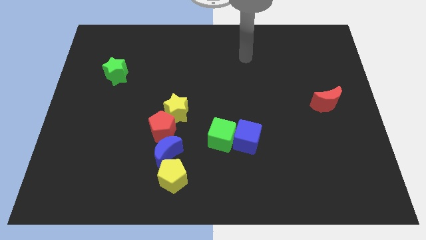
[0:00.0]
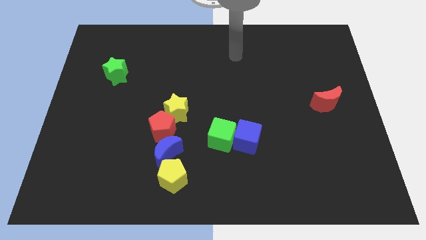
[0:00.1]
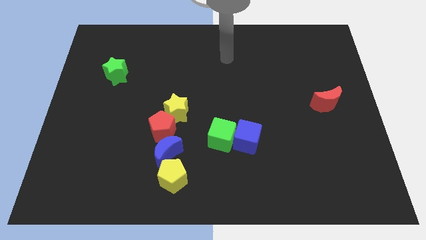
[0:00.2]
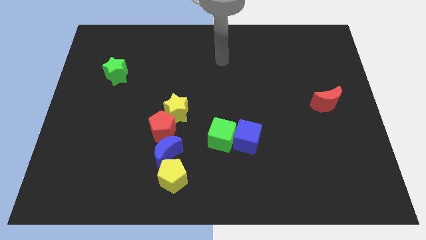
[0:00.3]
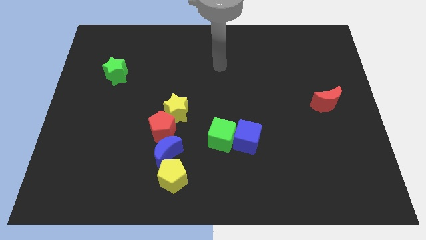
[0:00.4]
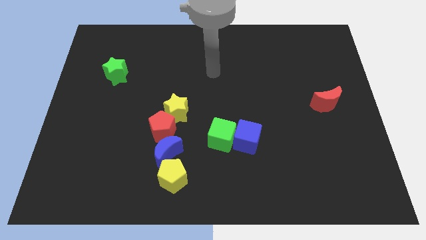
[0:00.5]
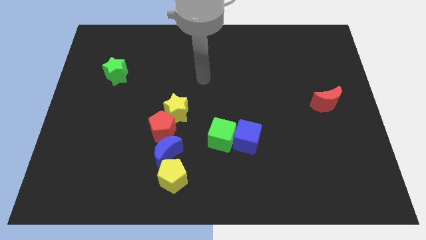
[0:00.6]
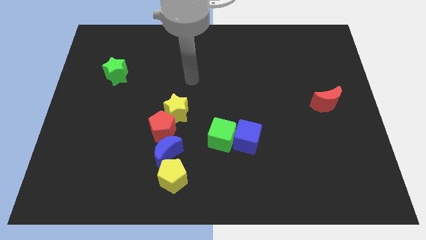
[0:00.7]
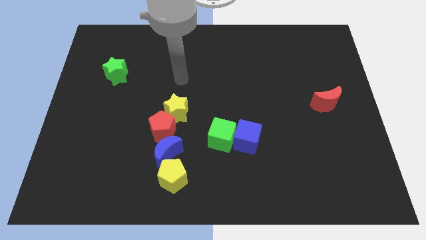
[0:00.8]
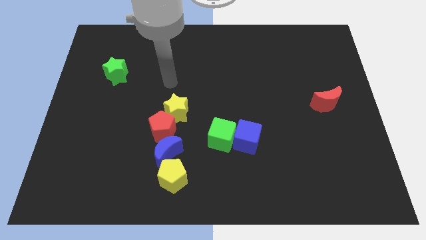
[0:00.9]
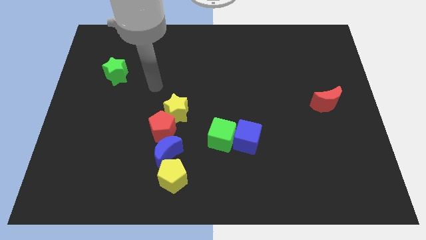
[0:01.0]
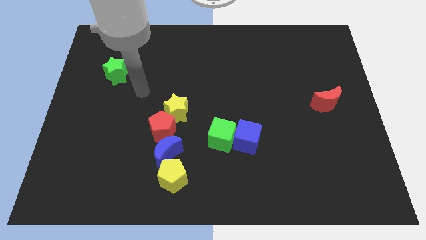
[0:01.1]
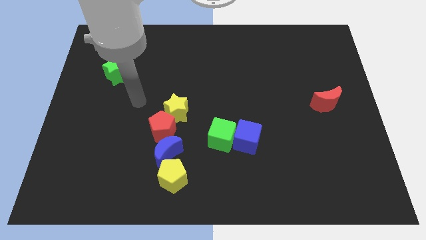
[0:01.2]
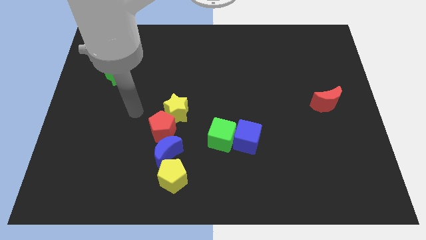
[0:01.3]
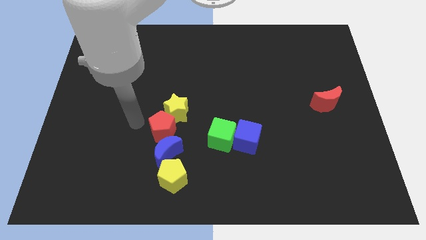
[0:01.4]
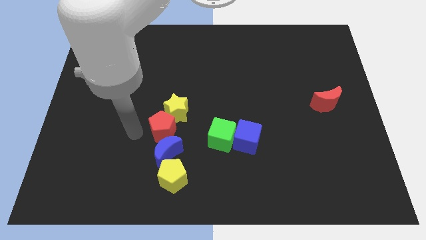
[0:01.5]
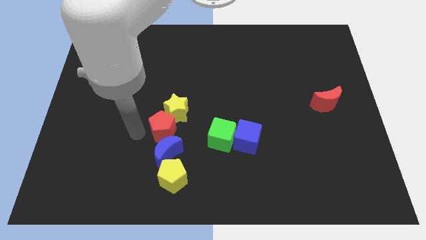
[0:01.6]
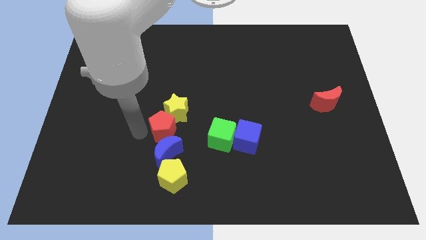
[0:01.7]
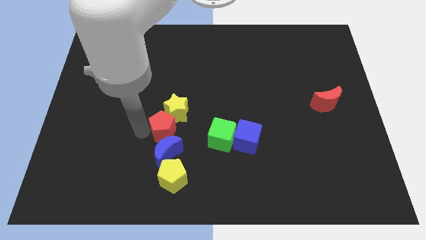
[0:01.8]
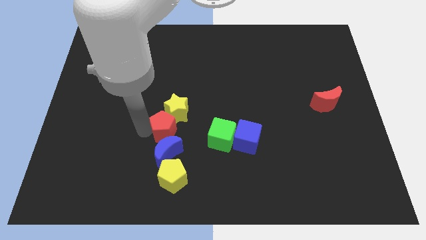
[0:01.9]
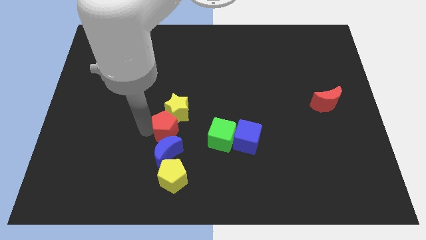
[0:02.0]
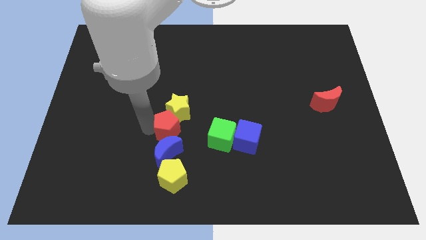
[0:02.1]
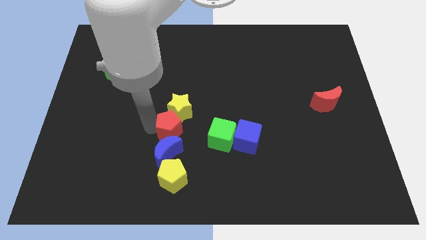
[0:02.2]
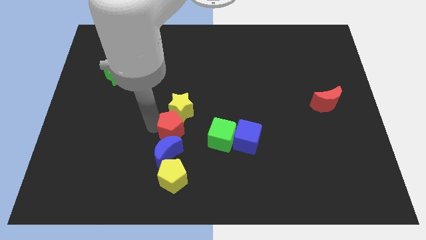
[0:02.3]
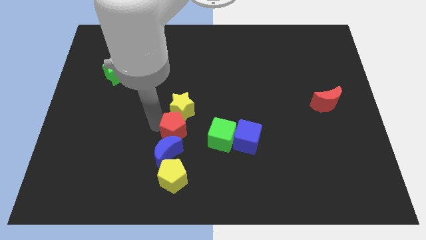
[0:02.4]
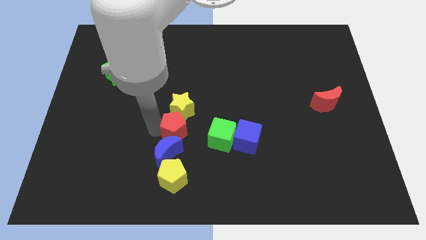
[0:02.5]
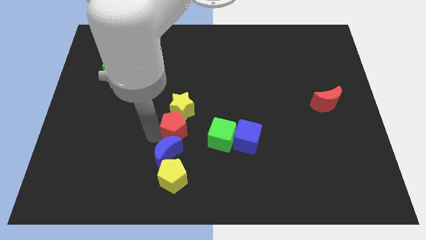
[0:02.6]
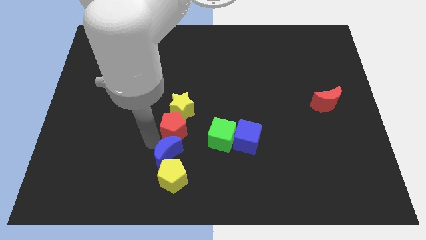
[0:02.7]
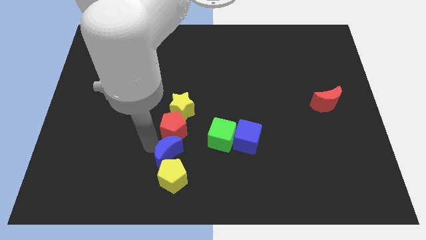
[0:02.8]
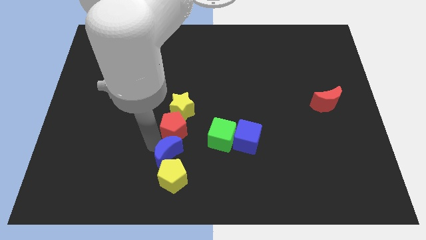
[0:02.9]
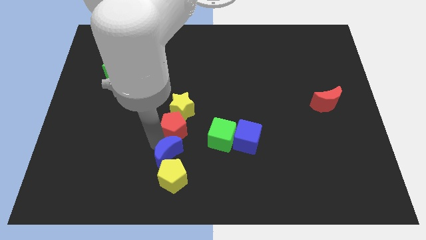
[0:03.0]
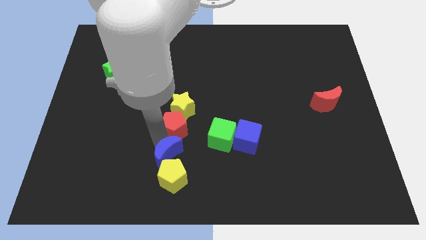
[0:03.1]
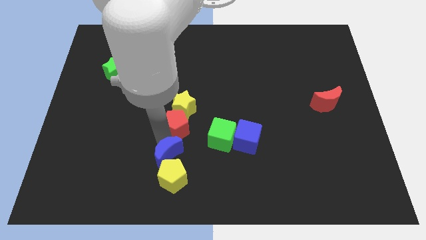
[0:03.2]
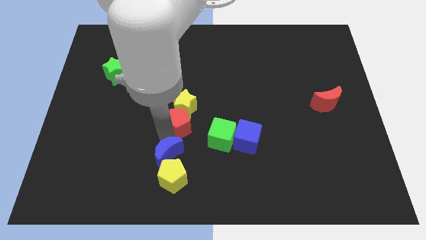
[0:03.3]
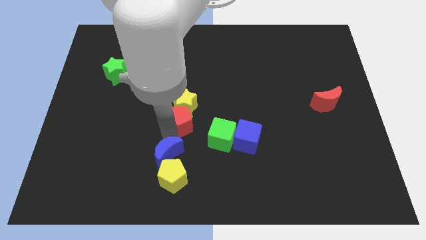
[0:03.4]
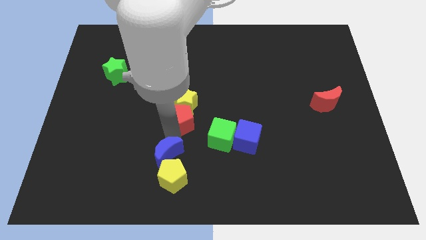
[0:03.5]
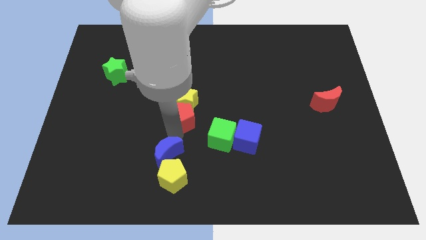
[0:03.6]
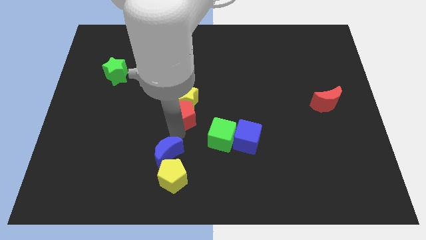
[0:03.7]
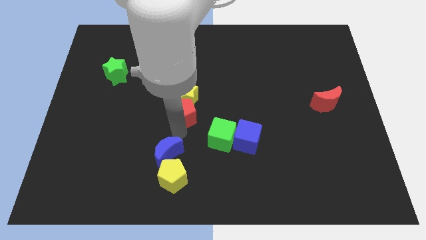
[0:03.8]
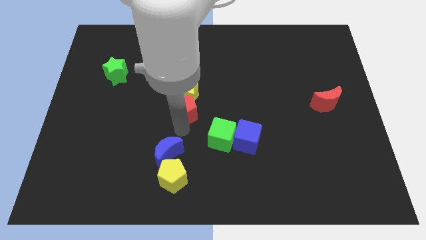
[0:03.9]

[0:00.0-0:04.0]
slightly move the red pentagon up and right diagonally

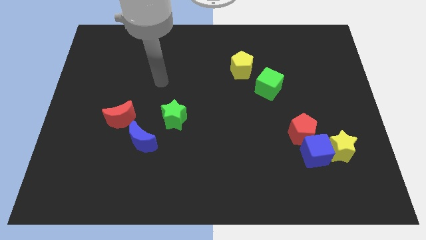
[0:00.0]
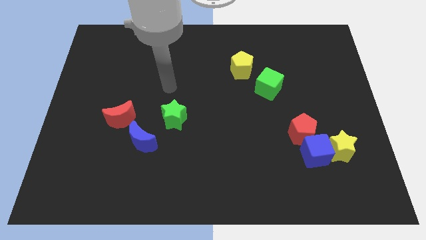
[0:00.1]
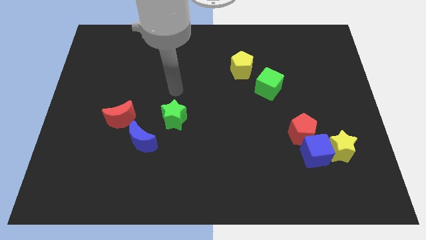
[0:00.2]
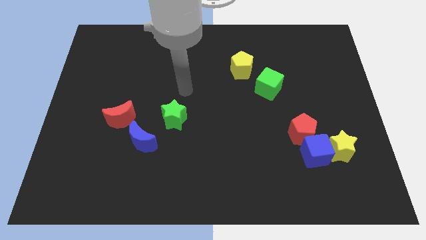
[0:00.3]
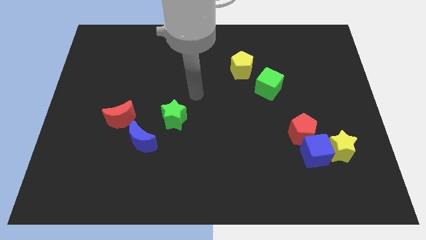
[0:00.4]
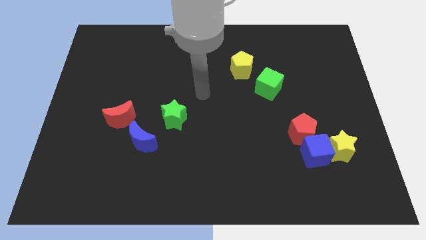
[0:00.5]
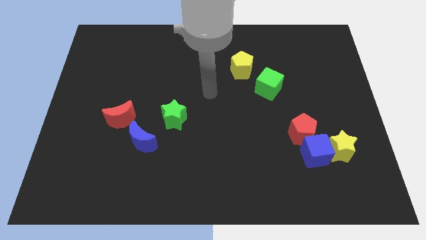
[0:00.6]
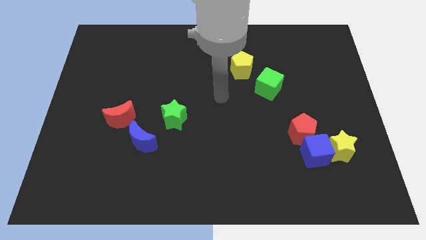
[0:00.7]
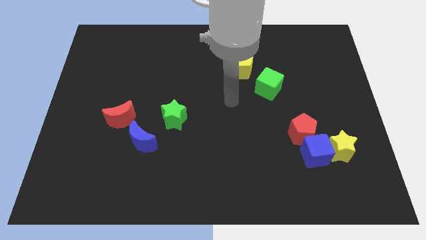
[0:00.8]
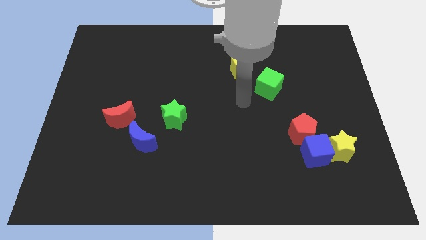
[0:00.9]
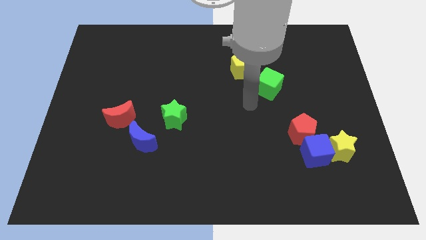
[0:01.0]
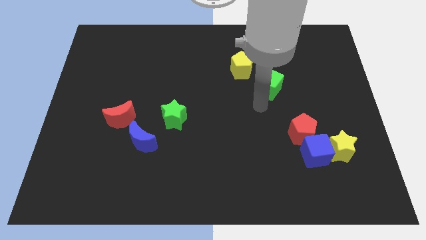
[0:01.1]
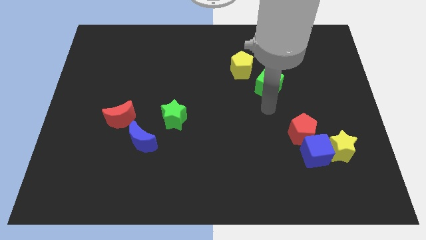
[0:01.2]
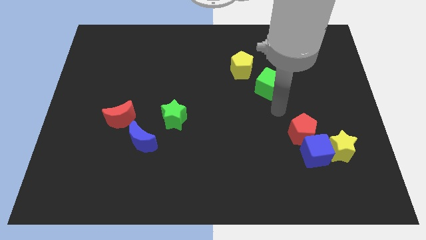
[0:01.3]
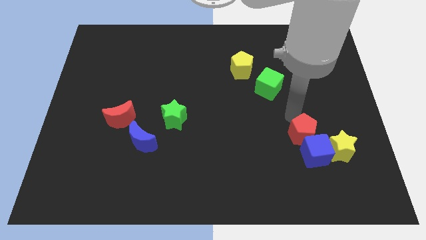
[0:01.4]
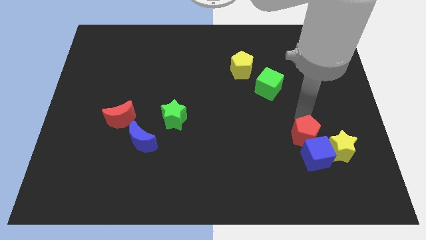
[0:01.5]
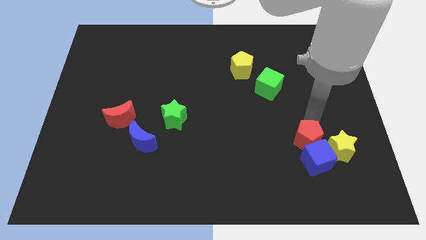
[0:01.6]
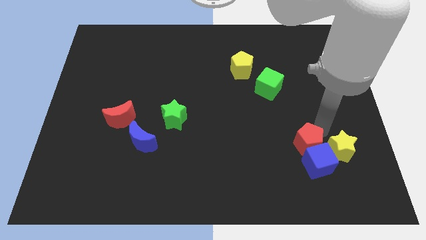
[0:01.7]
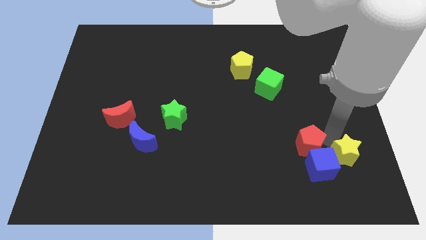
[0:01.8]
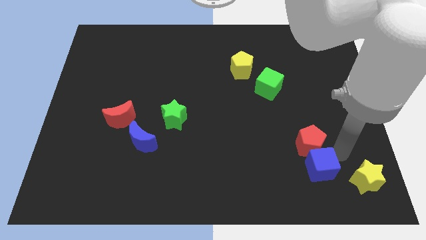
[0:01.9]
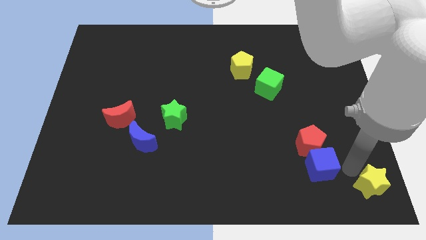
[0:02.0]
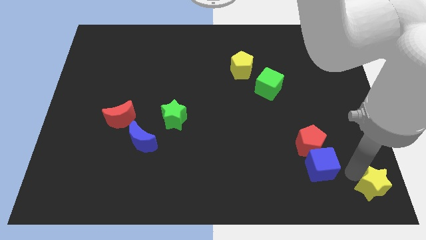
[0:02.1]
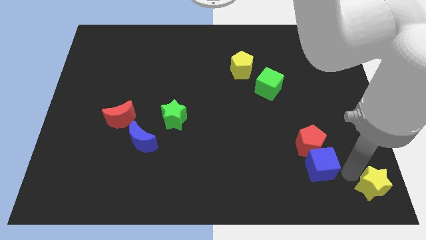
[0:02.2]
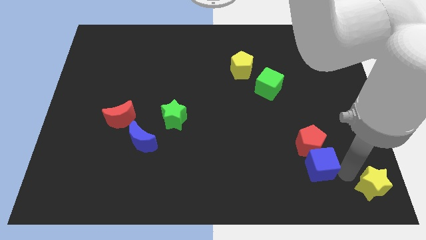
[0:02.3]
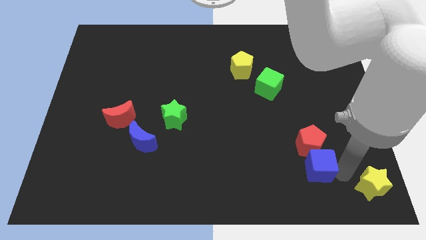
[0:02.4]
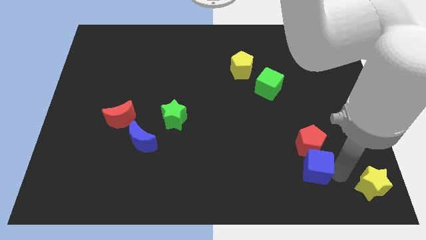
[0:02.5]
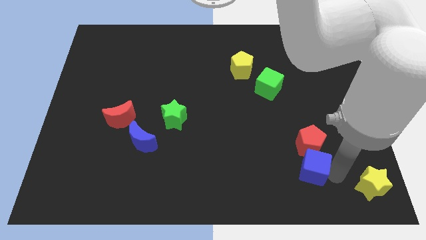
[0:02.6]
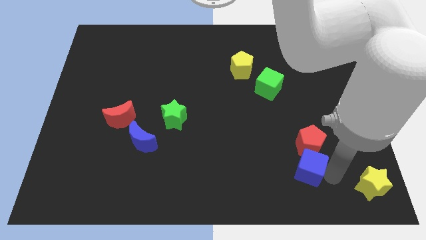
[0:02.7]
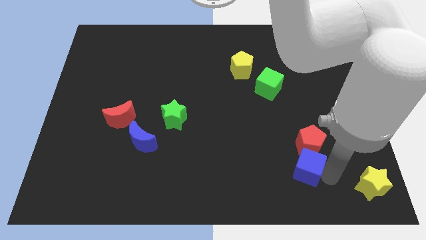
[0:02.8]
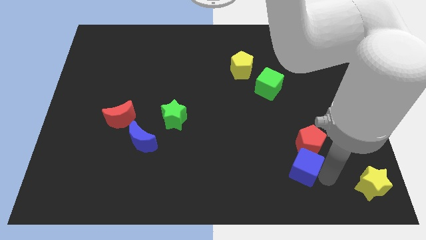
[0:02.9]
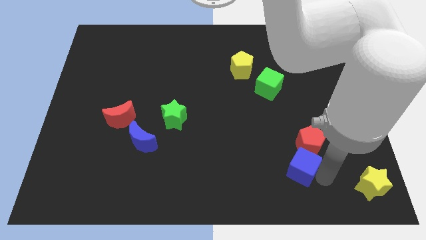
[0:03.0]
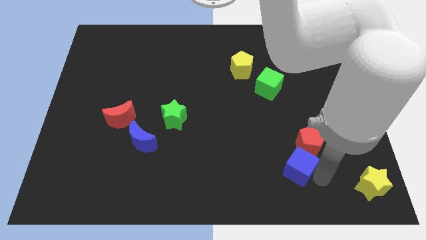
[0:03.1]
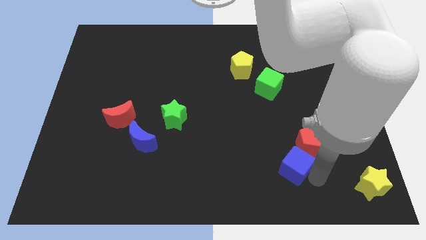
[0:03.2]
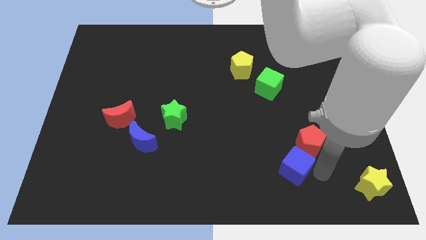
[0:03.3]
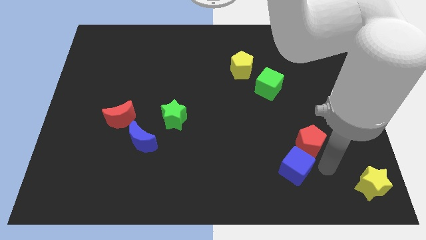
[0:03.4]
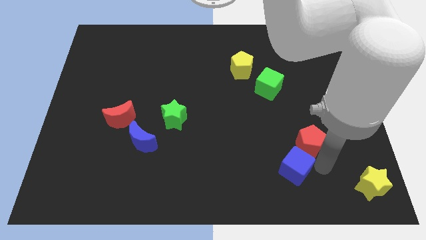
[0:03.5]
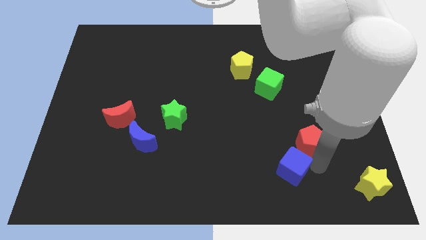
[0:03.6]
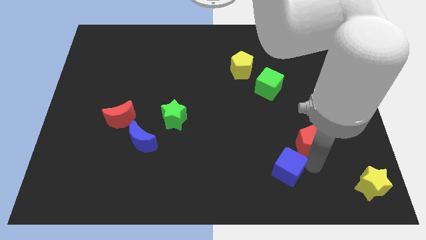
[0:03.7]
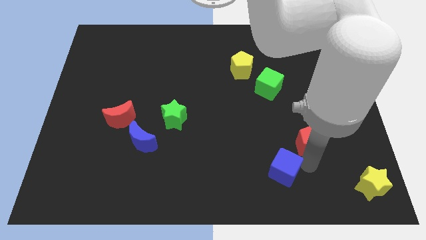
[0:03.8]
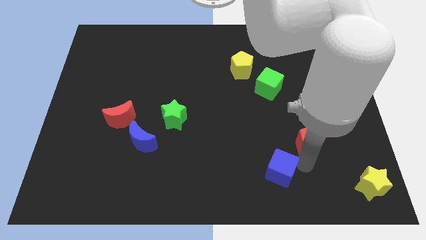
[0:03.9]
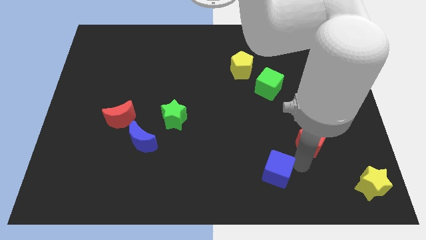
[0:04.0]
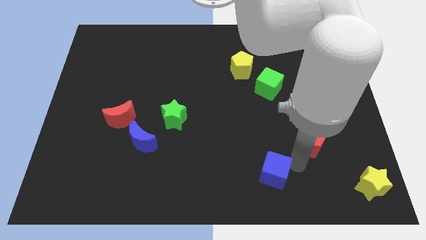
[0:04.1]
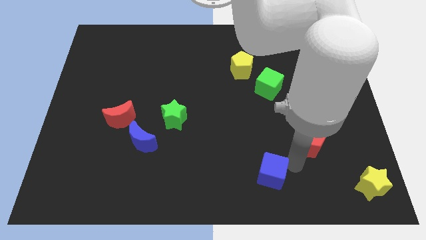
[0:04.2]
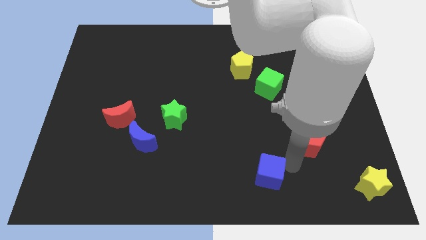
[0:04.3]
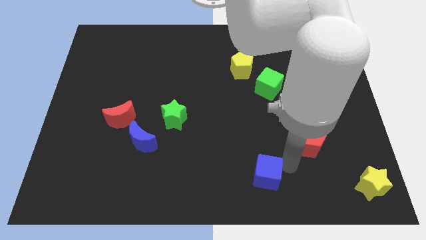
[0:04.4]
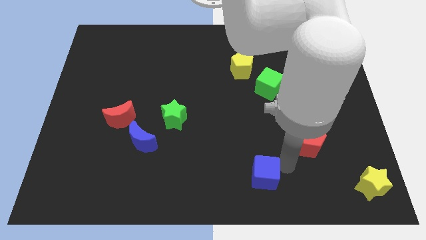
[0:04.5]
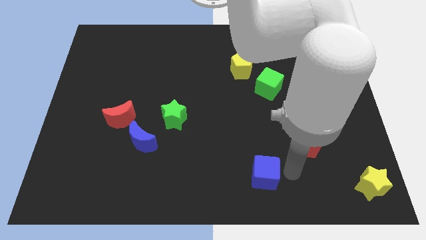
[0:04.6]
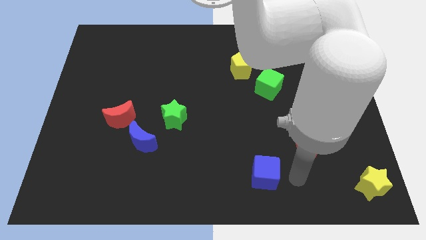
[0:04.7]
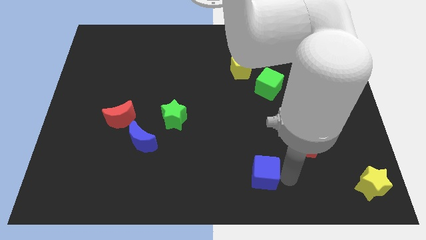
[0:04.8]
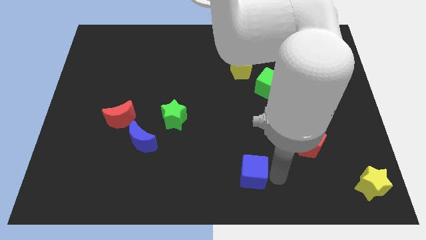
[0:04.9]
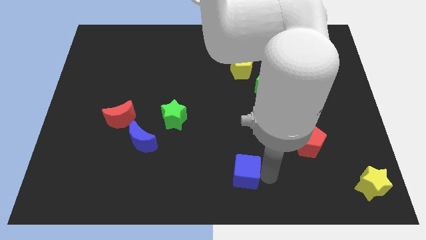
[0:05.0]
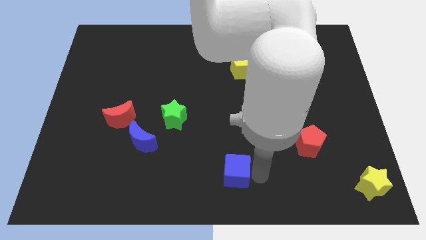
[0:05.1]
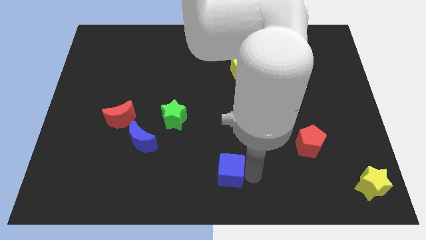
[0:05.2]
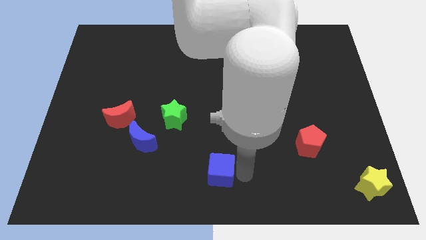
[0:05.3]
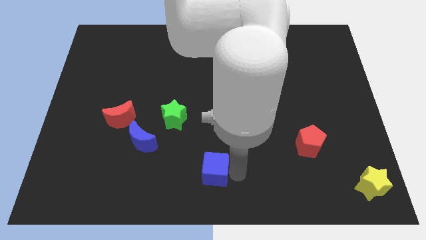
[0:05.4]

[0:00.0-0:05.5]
move the blue cube to the left
